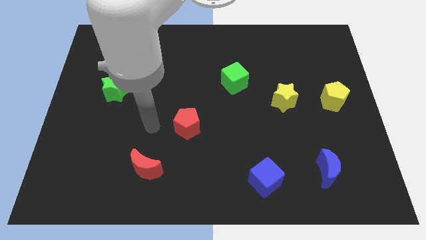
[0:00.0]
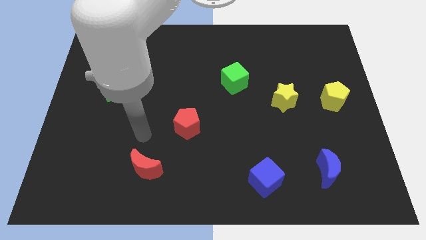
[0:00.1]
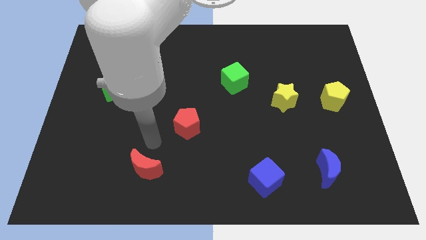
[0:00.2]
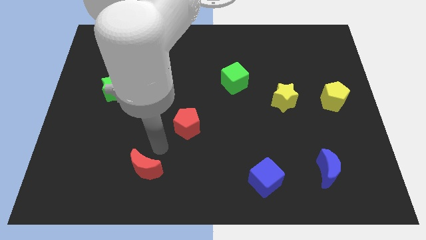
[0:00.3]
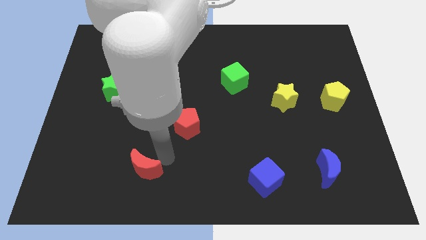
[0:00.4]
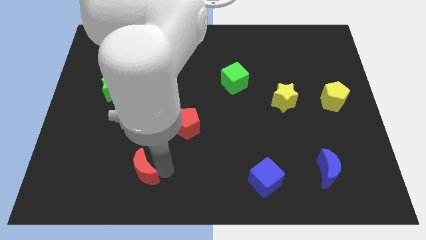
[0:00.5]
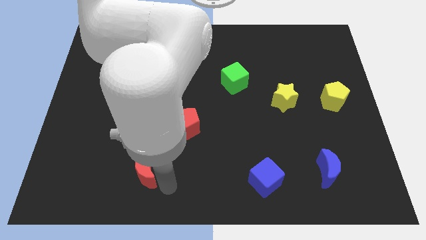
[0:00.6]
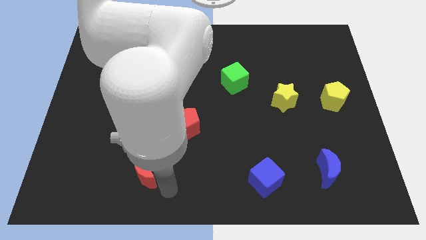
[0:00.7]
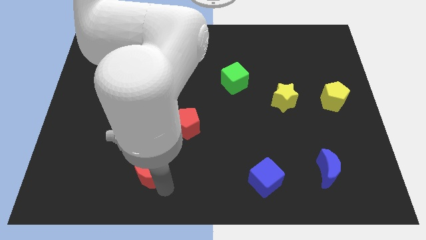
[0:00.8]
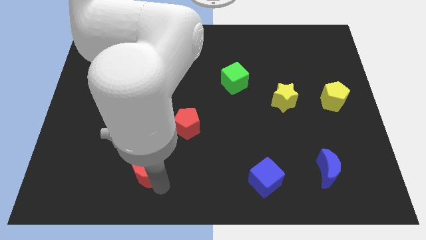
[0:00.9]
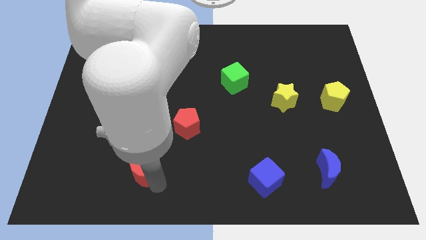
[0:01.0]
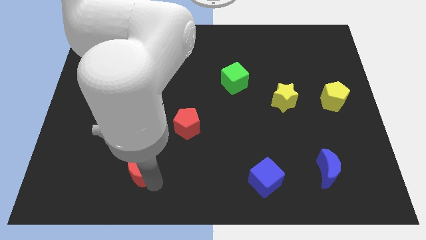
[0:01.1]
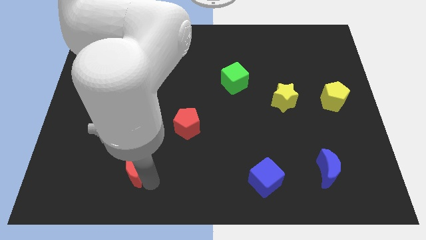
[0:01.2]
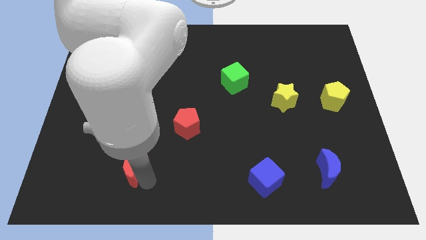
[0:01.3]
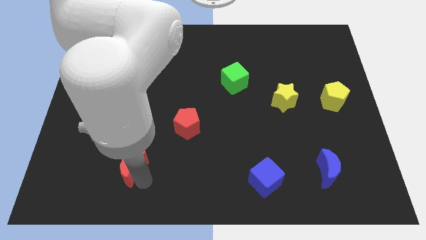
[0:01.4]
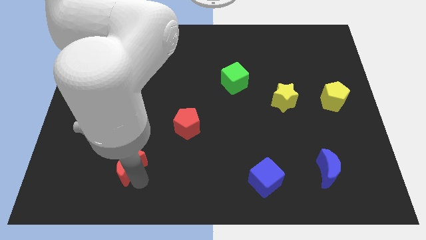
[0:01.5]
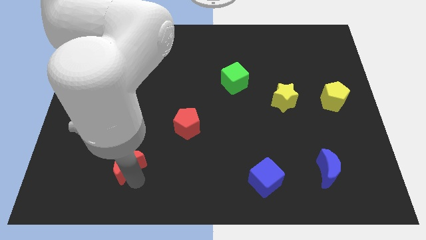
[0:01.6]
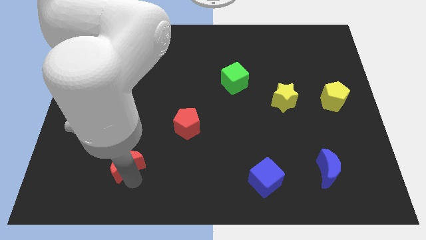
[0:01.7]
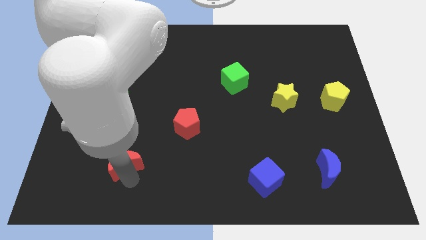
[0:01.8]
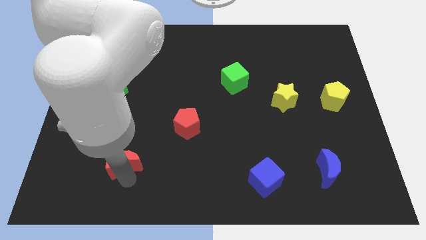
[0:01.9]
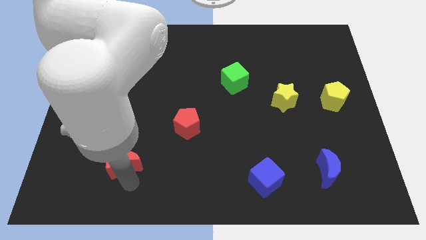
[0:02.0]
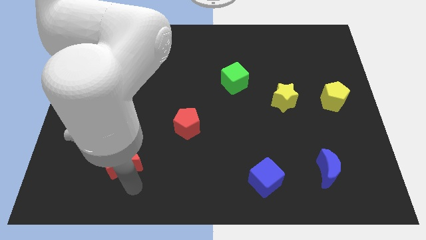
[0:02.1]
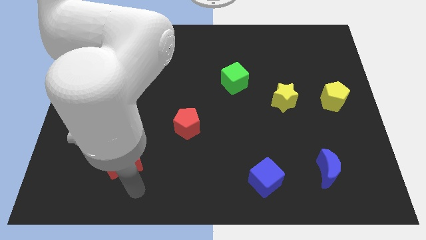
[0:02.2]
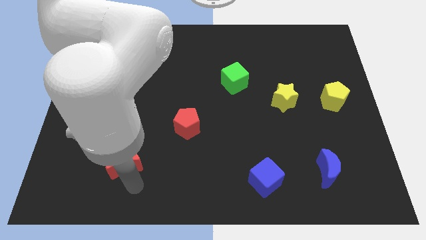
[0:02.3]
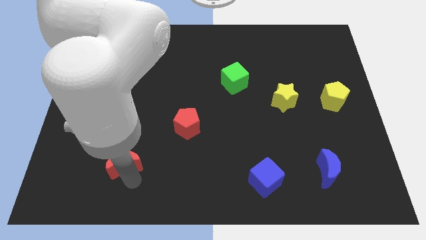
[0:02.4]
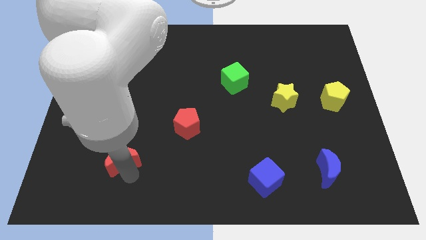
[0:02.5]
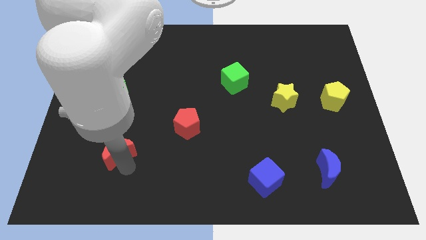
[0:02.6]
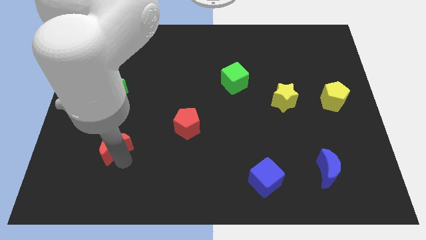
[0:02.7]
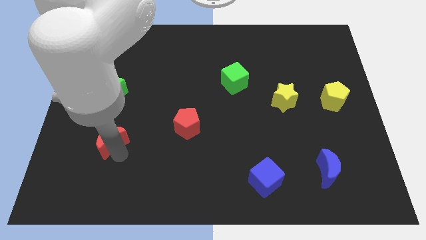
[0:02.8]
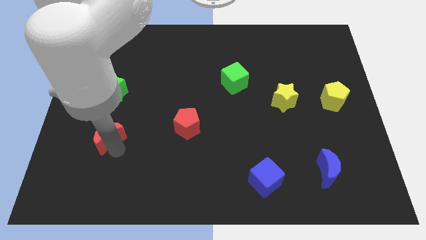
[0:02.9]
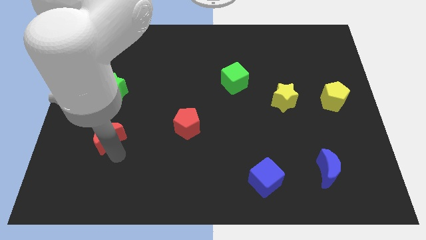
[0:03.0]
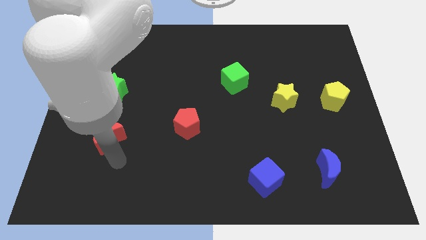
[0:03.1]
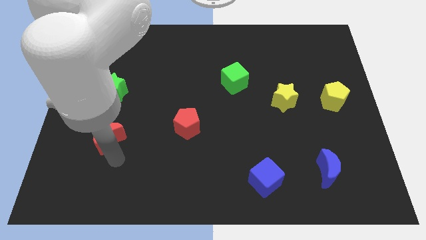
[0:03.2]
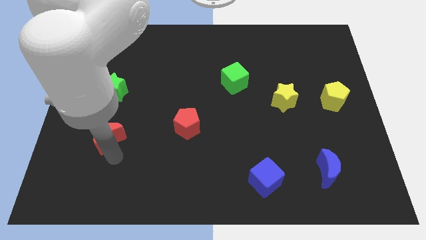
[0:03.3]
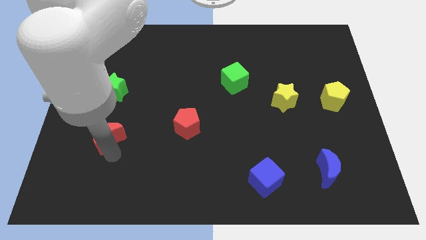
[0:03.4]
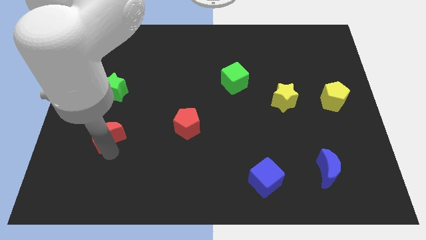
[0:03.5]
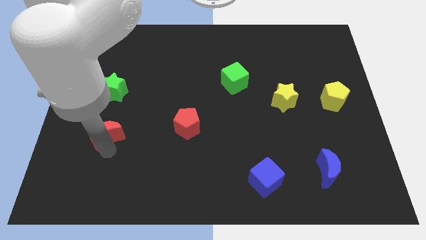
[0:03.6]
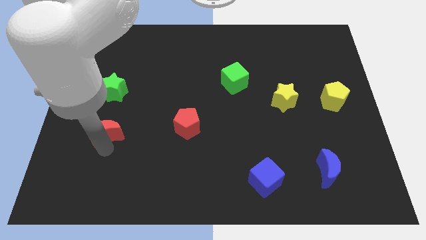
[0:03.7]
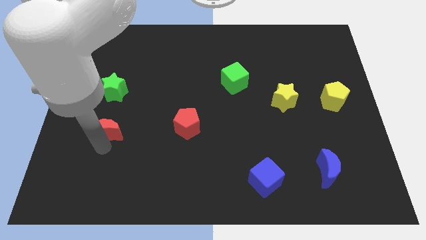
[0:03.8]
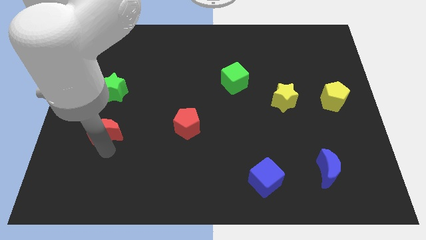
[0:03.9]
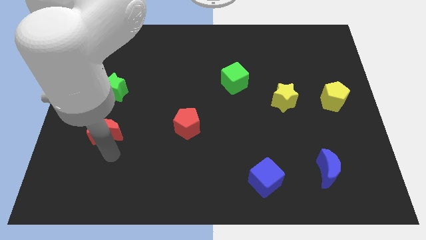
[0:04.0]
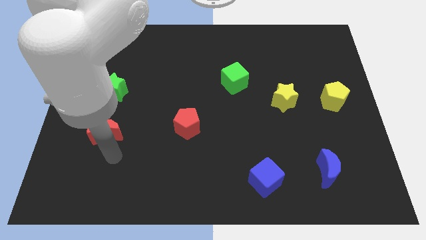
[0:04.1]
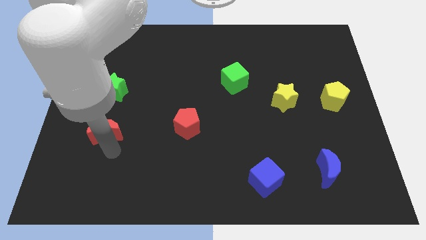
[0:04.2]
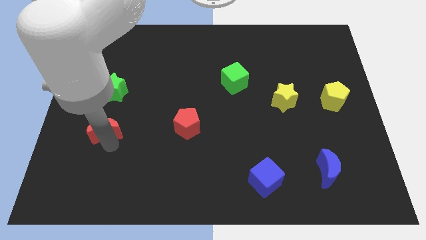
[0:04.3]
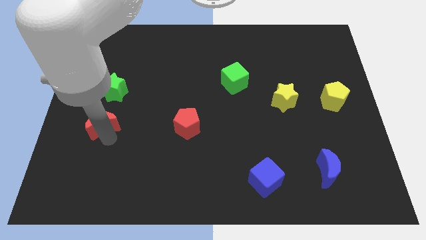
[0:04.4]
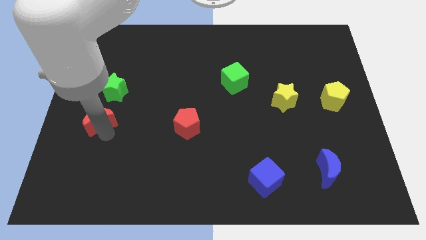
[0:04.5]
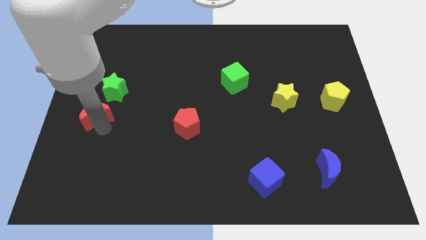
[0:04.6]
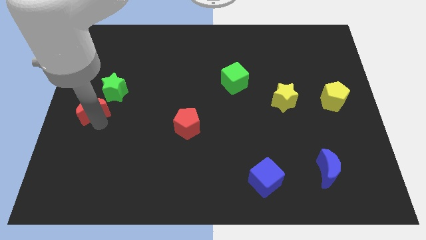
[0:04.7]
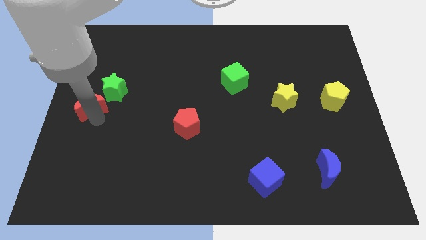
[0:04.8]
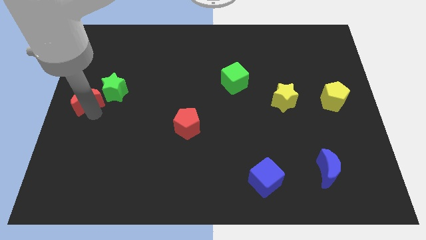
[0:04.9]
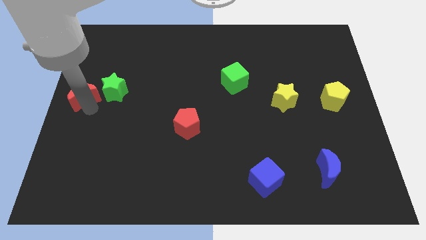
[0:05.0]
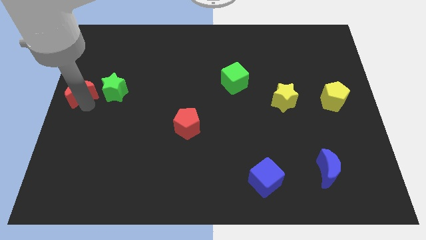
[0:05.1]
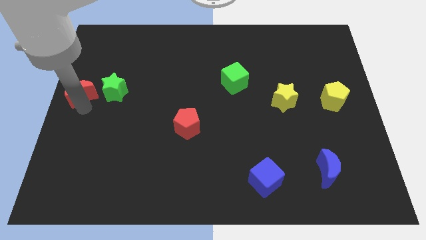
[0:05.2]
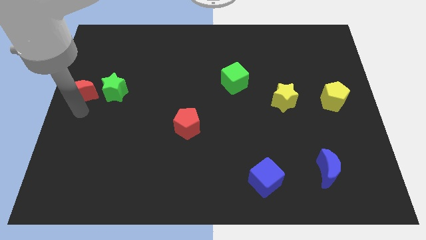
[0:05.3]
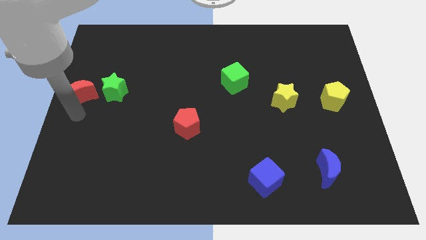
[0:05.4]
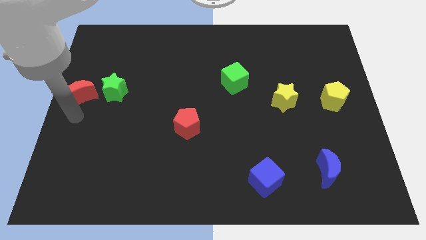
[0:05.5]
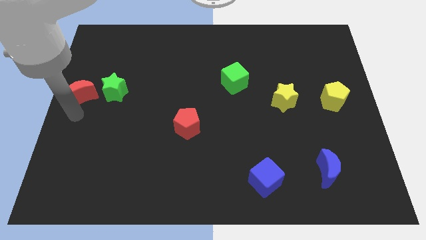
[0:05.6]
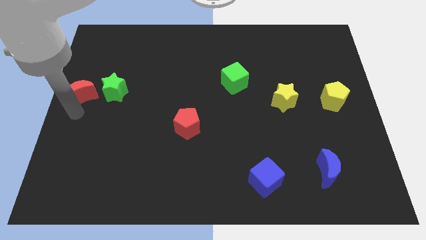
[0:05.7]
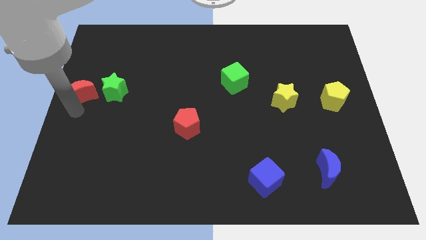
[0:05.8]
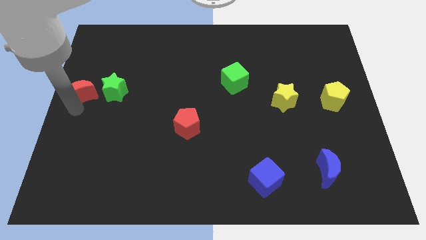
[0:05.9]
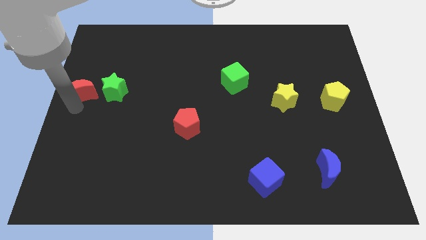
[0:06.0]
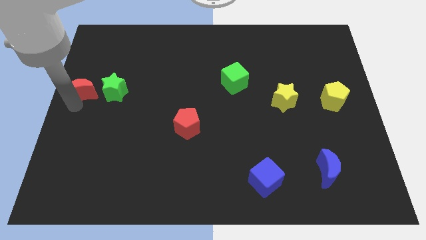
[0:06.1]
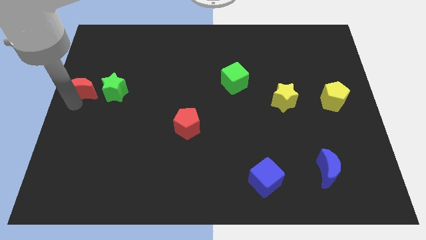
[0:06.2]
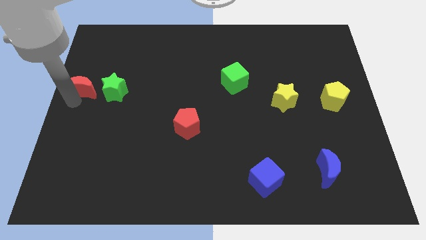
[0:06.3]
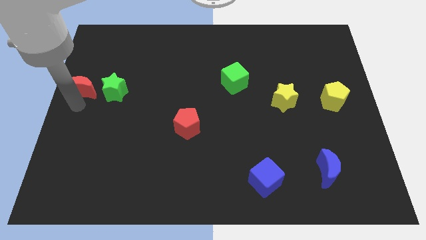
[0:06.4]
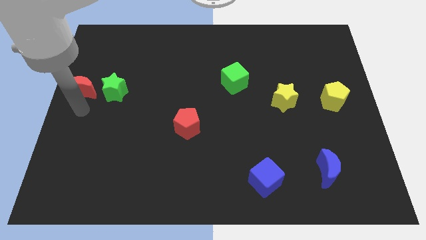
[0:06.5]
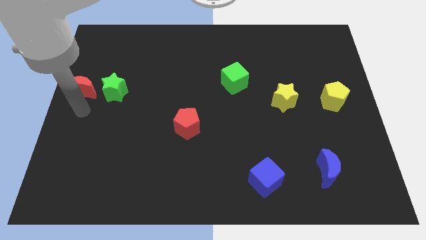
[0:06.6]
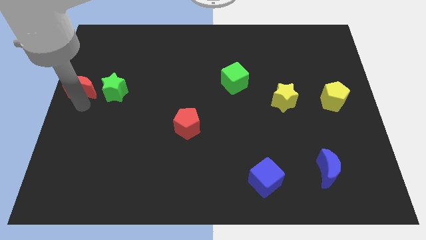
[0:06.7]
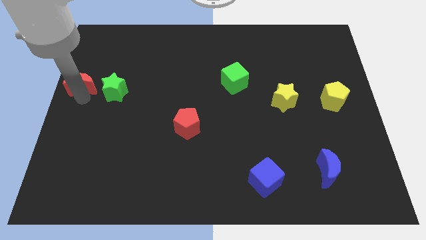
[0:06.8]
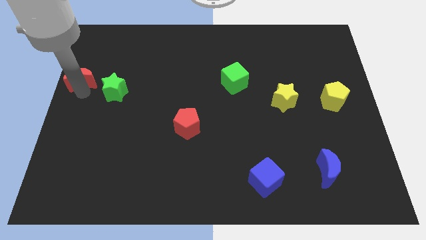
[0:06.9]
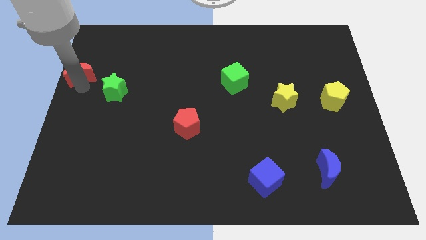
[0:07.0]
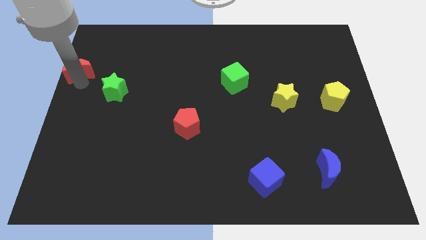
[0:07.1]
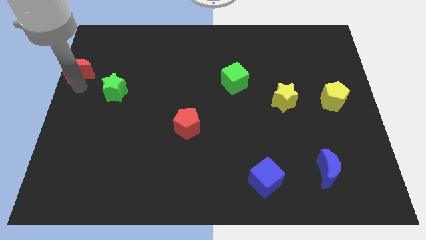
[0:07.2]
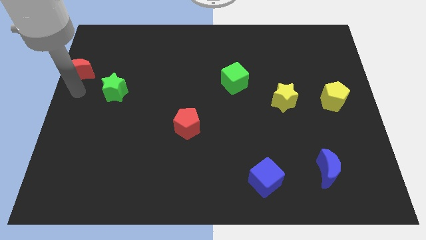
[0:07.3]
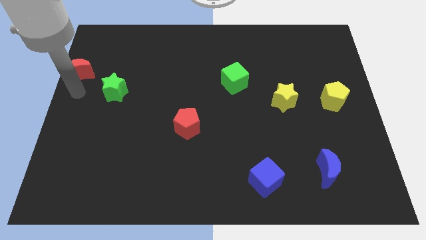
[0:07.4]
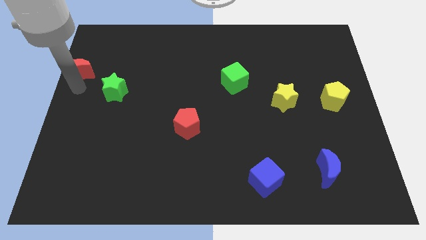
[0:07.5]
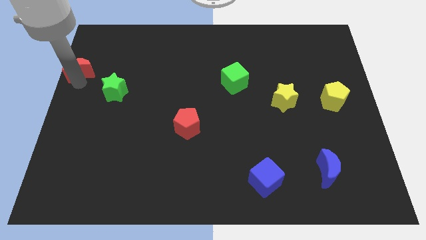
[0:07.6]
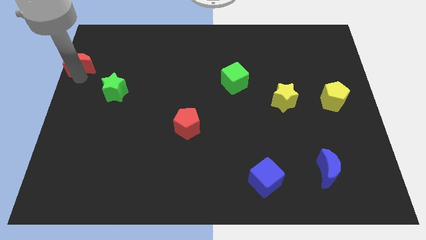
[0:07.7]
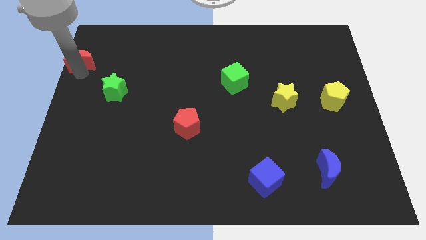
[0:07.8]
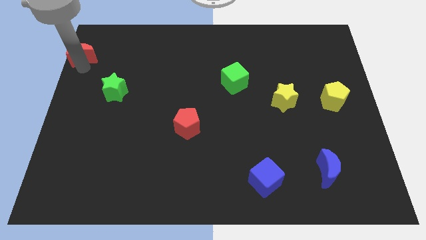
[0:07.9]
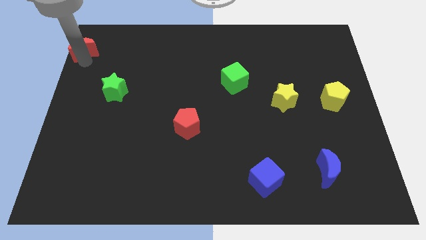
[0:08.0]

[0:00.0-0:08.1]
move the red moon to the top left
